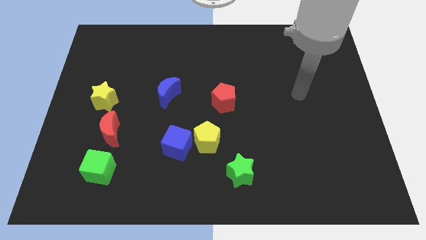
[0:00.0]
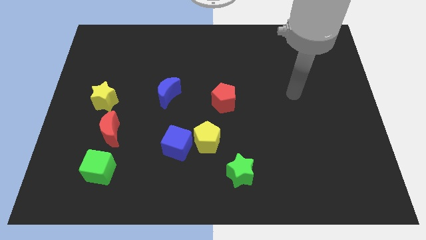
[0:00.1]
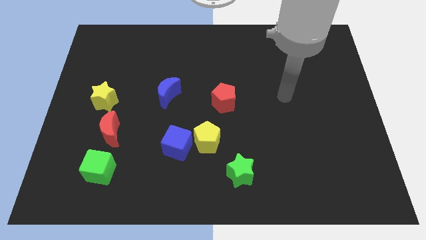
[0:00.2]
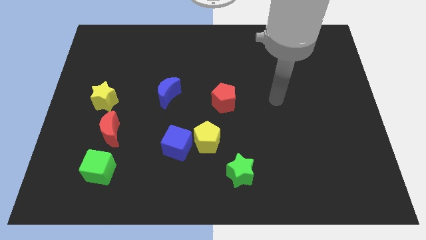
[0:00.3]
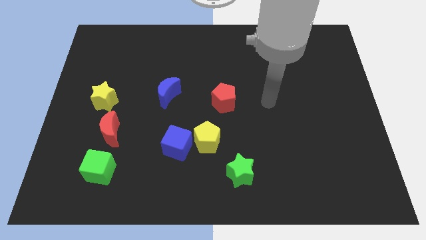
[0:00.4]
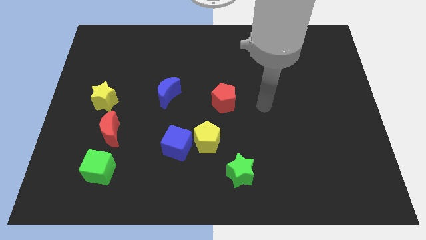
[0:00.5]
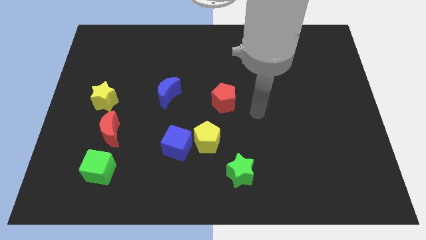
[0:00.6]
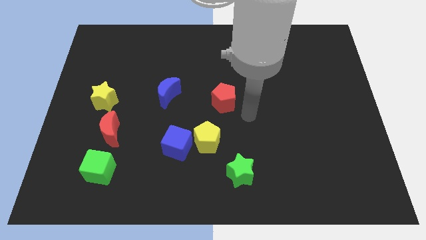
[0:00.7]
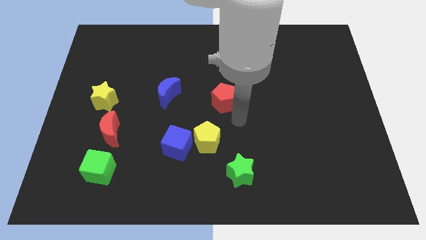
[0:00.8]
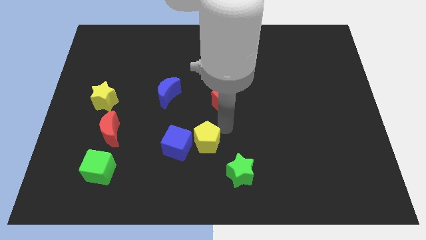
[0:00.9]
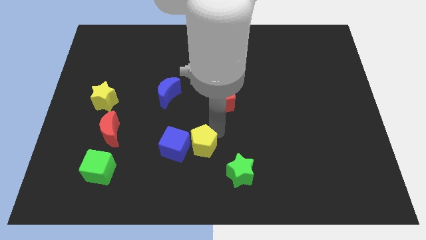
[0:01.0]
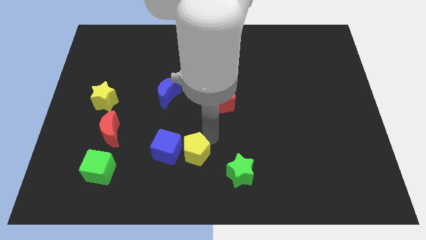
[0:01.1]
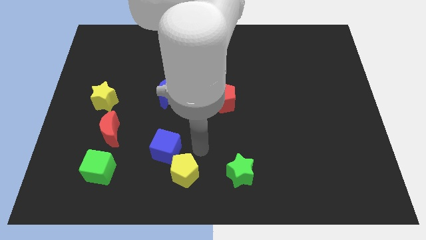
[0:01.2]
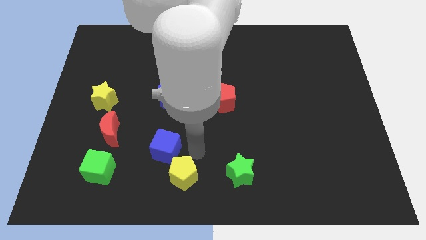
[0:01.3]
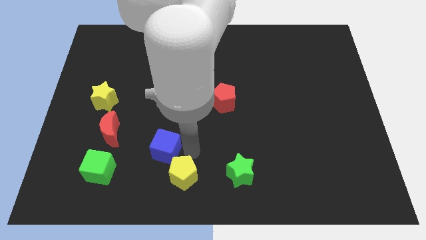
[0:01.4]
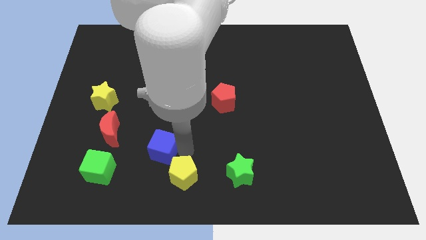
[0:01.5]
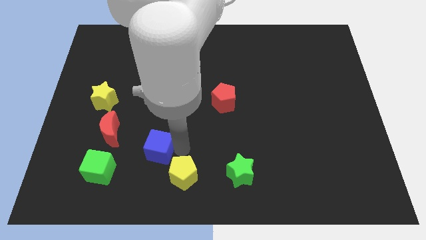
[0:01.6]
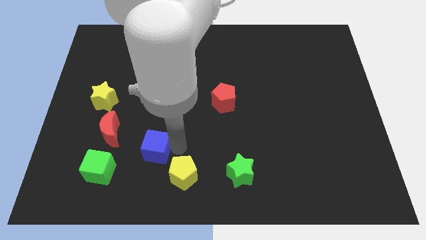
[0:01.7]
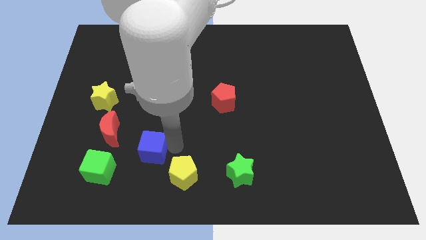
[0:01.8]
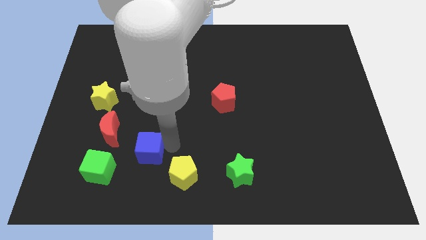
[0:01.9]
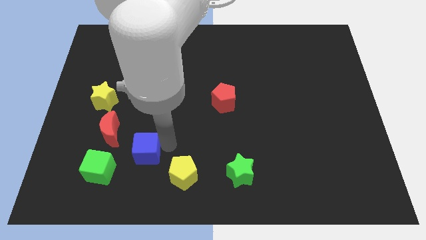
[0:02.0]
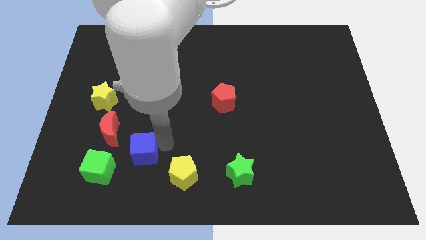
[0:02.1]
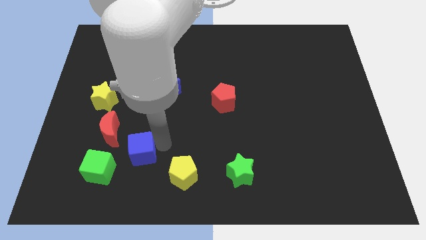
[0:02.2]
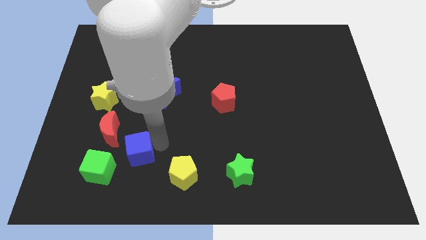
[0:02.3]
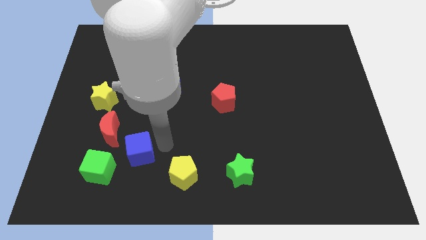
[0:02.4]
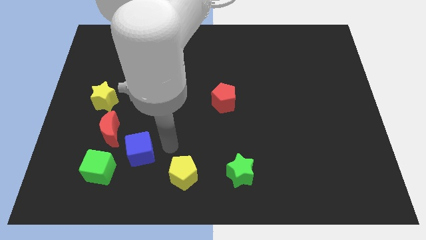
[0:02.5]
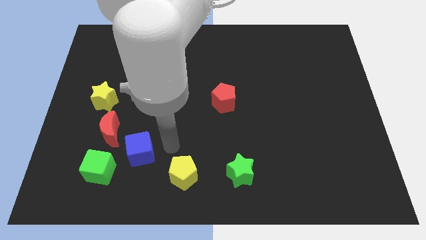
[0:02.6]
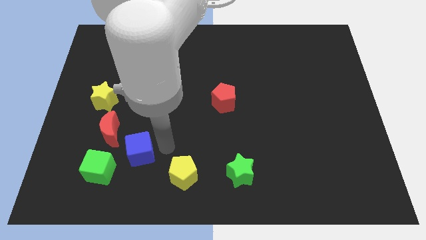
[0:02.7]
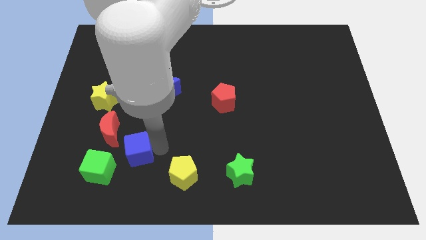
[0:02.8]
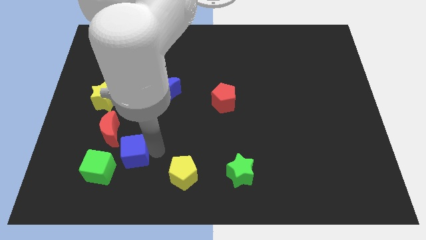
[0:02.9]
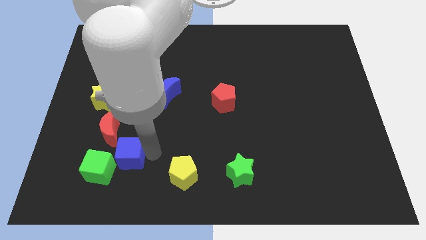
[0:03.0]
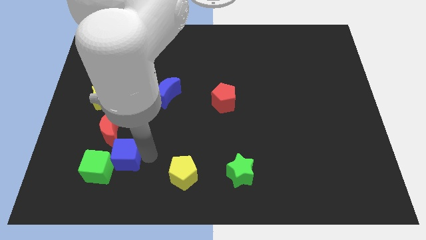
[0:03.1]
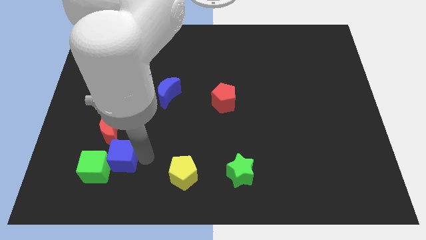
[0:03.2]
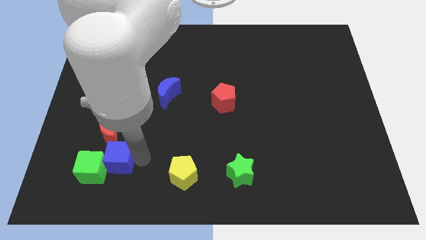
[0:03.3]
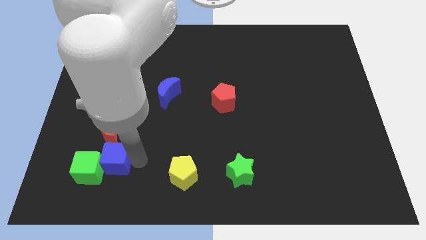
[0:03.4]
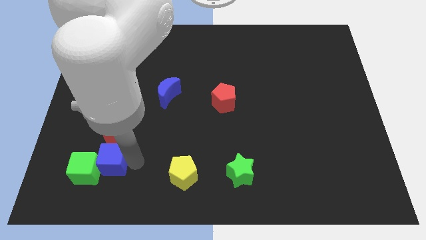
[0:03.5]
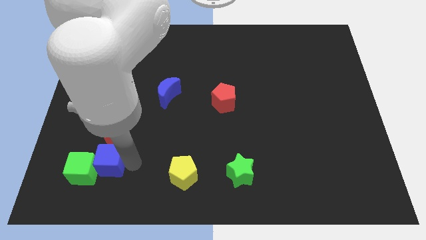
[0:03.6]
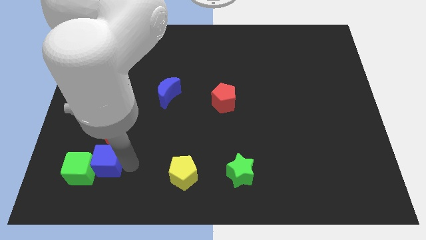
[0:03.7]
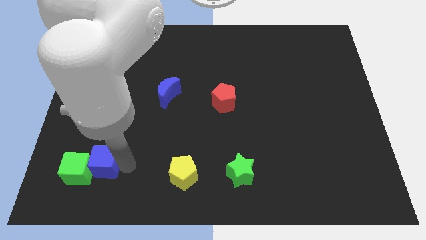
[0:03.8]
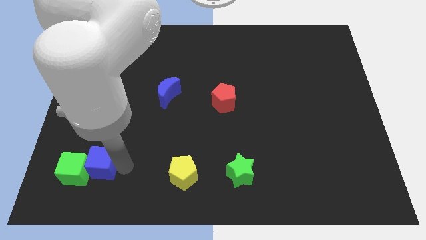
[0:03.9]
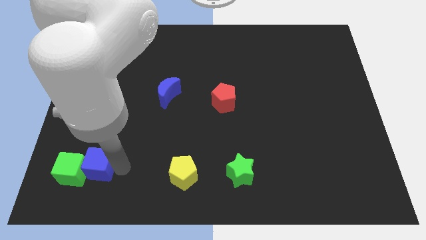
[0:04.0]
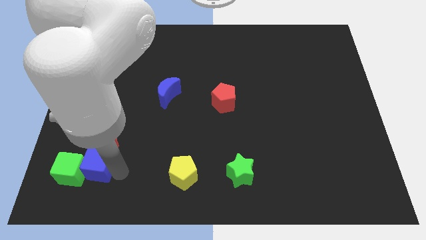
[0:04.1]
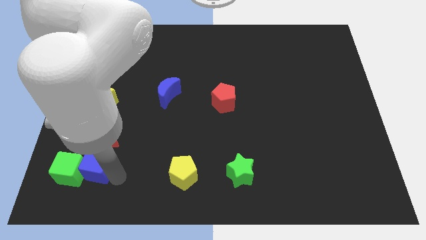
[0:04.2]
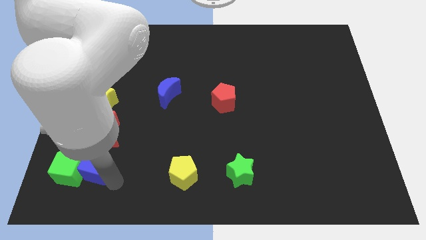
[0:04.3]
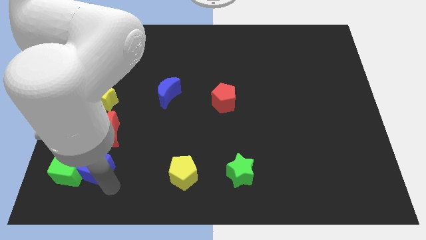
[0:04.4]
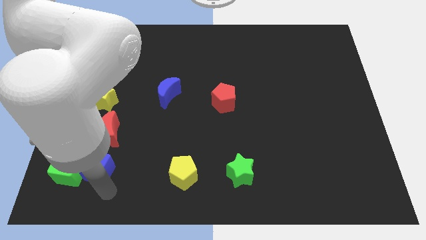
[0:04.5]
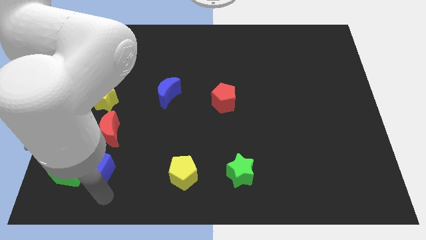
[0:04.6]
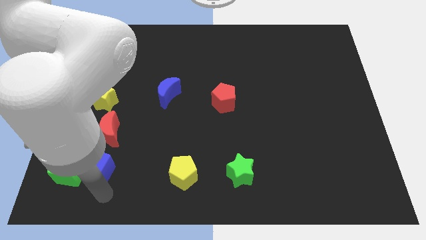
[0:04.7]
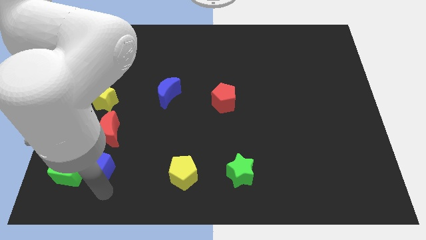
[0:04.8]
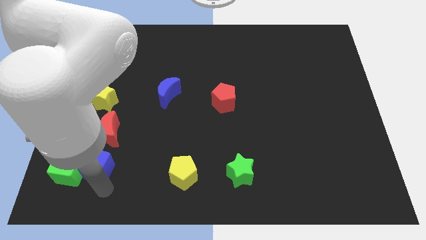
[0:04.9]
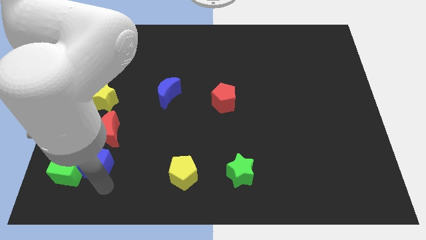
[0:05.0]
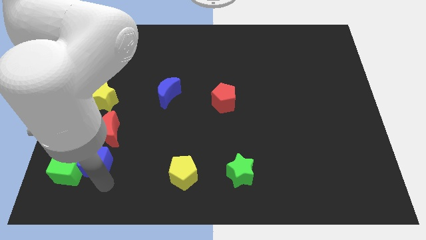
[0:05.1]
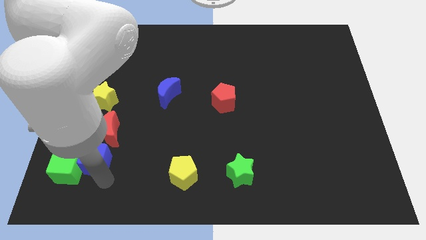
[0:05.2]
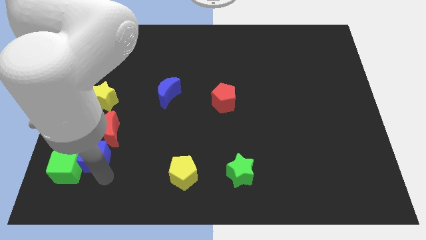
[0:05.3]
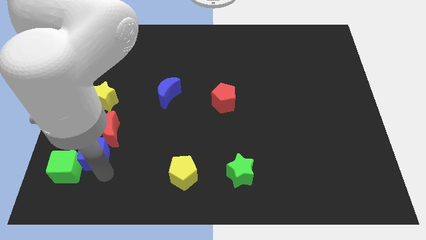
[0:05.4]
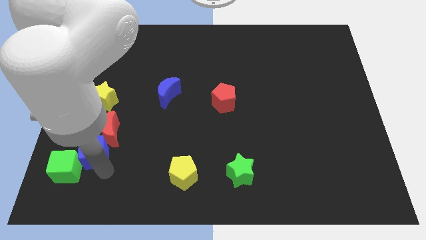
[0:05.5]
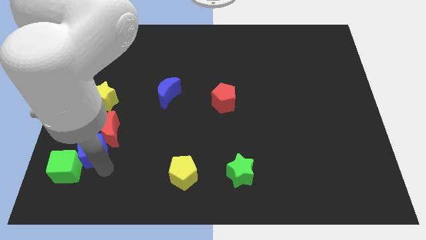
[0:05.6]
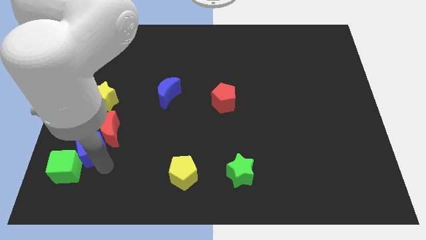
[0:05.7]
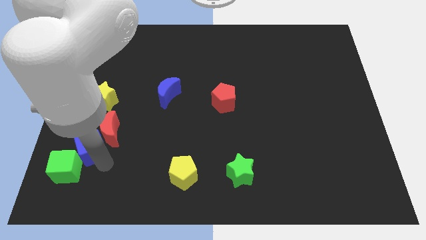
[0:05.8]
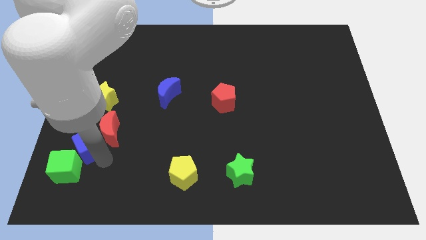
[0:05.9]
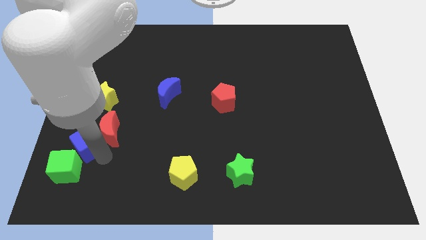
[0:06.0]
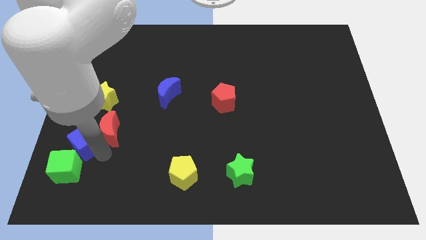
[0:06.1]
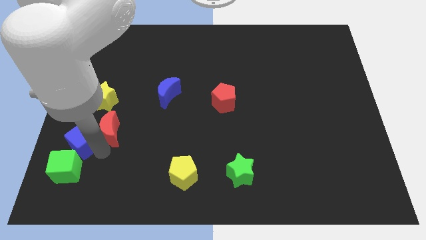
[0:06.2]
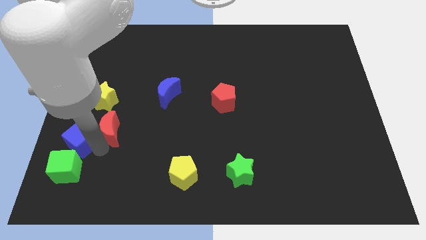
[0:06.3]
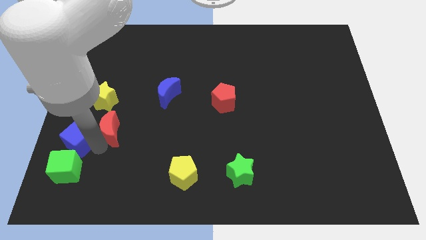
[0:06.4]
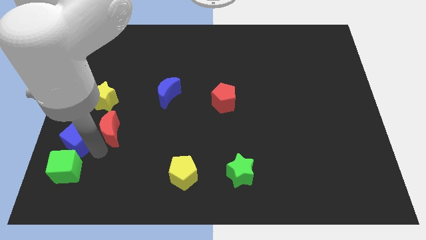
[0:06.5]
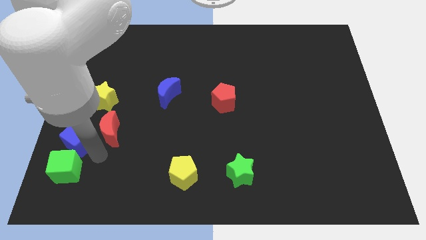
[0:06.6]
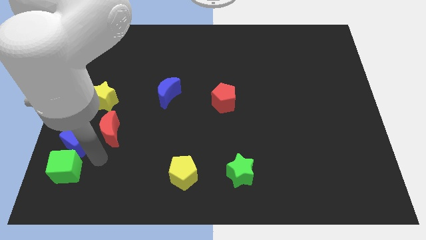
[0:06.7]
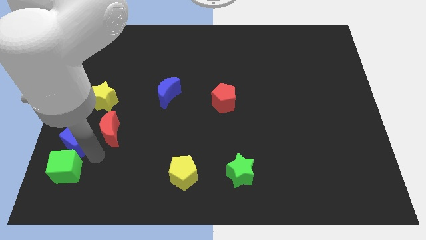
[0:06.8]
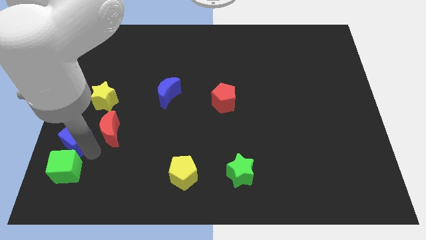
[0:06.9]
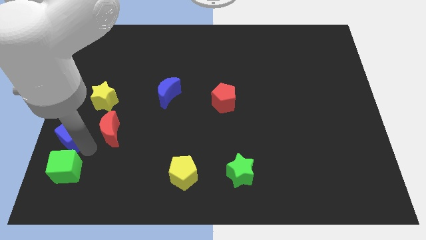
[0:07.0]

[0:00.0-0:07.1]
move the blue cube to the left side
